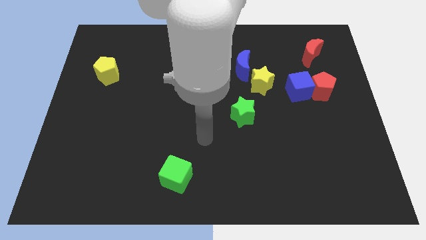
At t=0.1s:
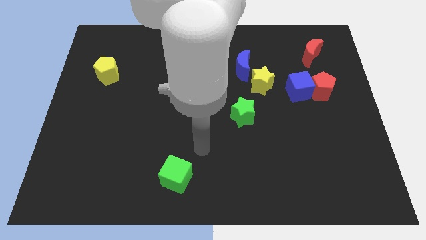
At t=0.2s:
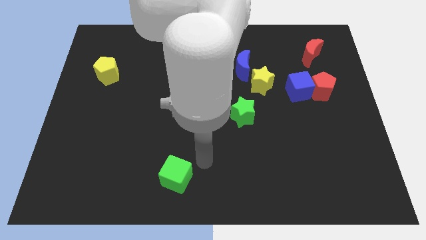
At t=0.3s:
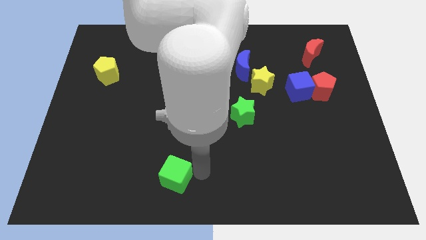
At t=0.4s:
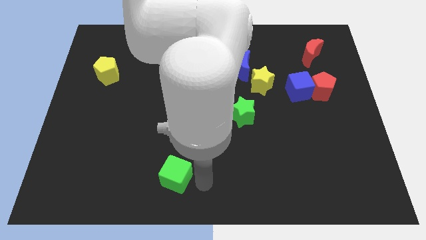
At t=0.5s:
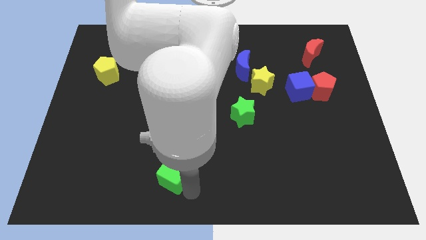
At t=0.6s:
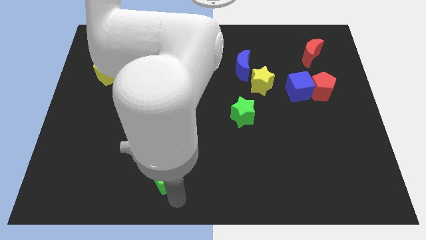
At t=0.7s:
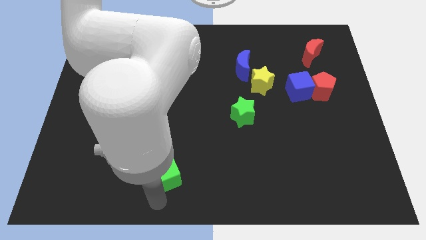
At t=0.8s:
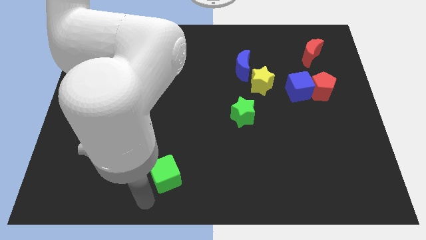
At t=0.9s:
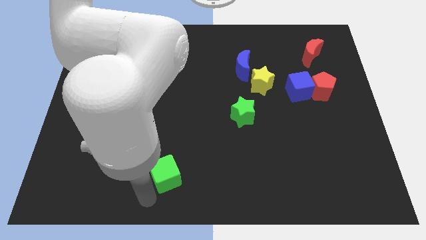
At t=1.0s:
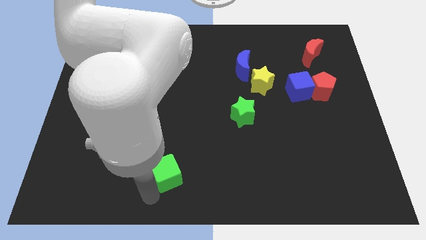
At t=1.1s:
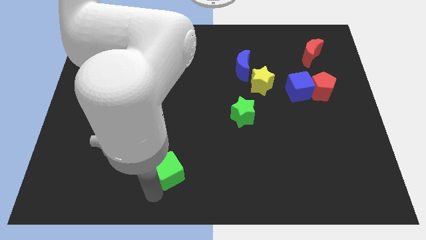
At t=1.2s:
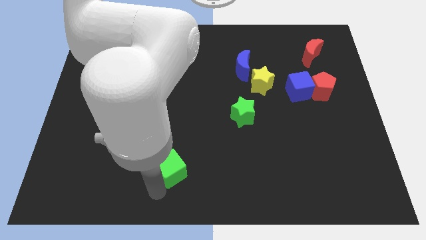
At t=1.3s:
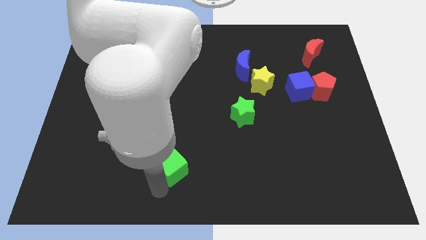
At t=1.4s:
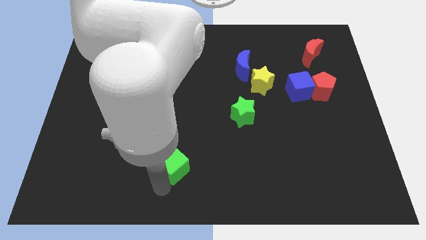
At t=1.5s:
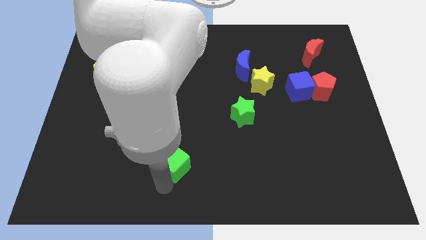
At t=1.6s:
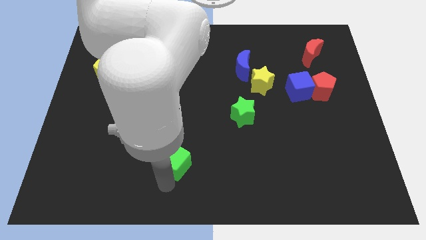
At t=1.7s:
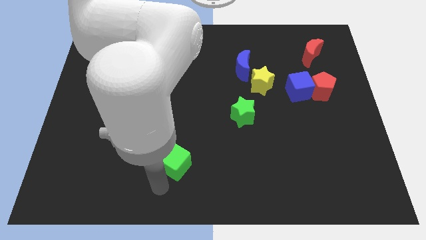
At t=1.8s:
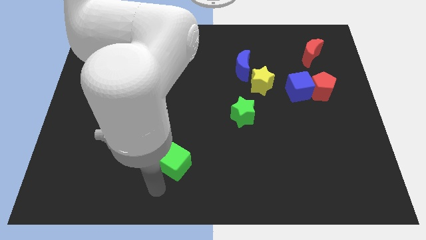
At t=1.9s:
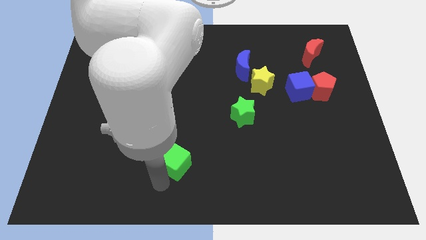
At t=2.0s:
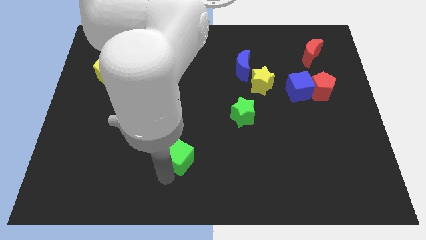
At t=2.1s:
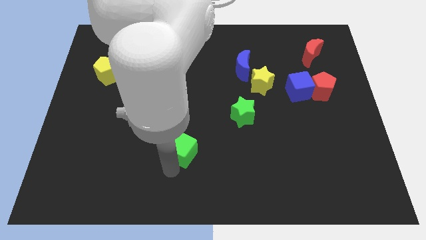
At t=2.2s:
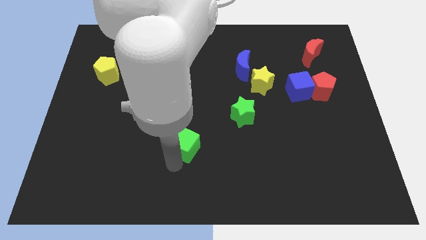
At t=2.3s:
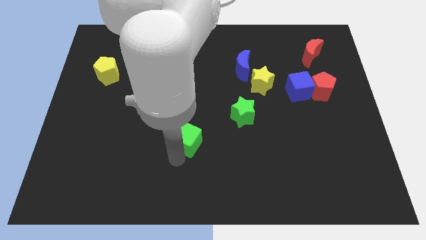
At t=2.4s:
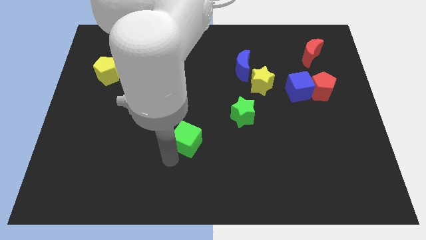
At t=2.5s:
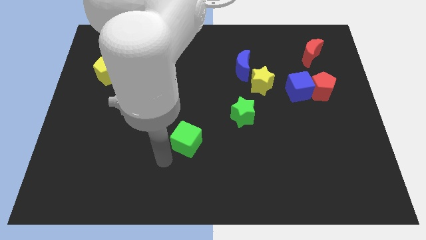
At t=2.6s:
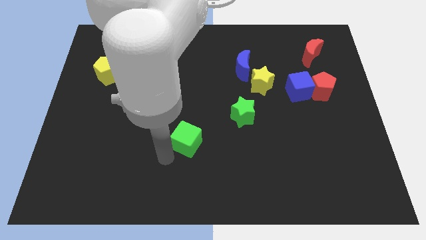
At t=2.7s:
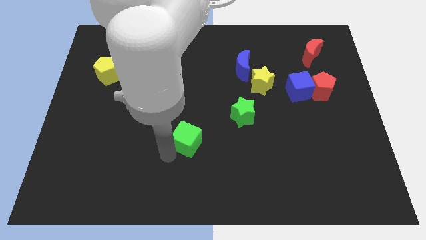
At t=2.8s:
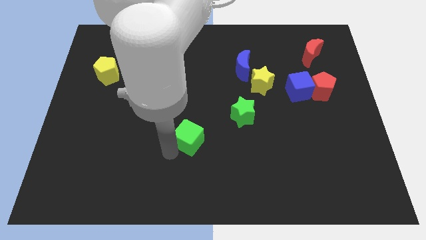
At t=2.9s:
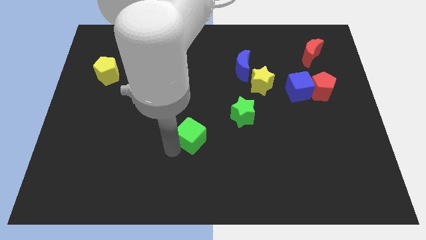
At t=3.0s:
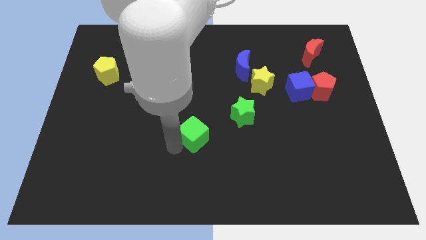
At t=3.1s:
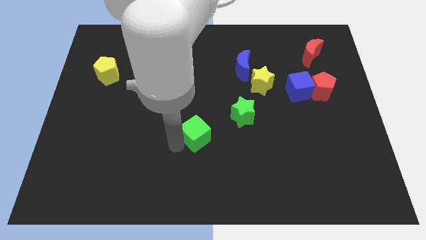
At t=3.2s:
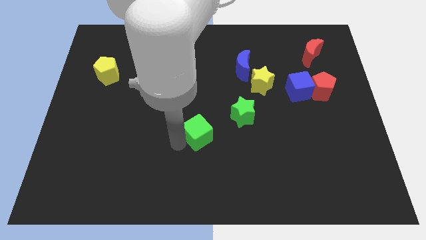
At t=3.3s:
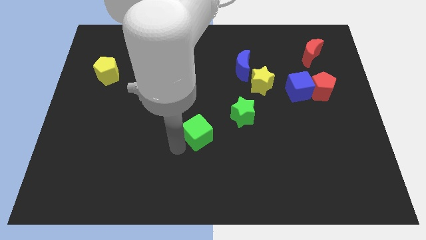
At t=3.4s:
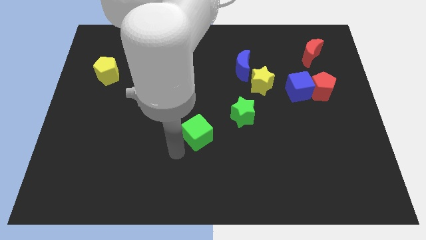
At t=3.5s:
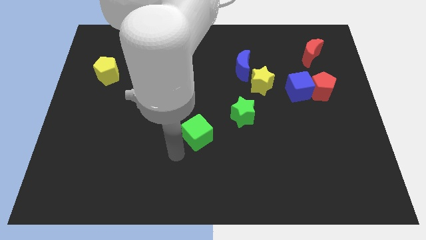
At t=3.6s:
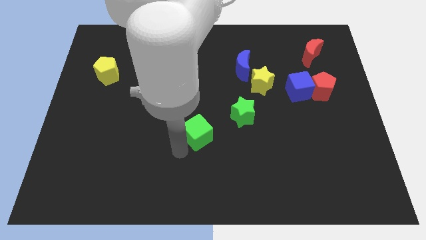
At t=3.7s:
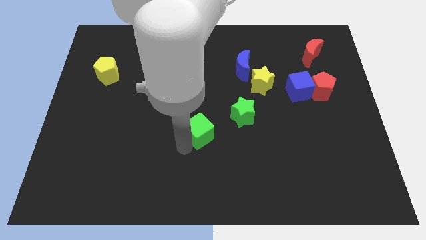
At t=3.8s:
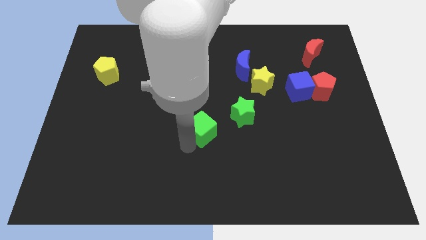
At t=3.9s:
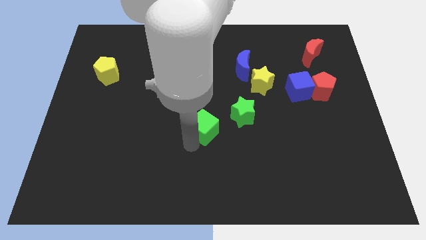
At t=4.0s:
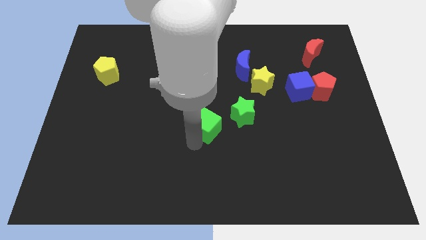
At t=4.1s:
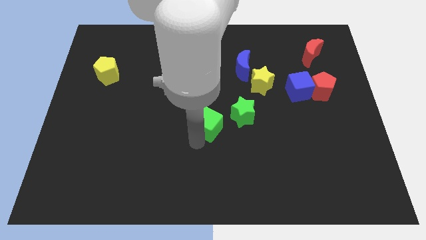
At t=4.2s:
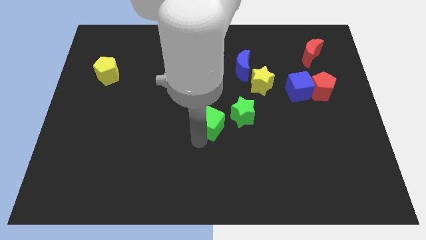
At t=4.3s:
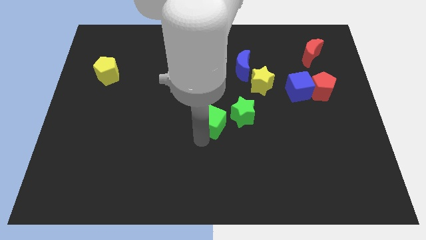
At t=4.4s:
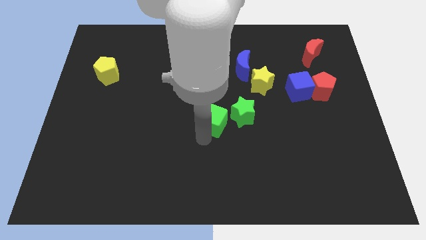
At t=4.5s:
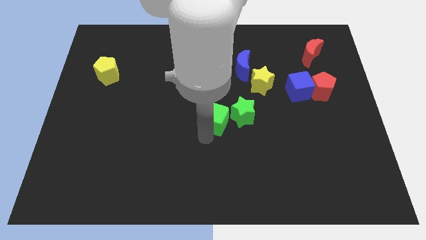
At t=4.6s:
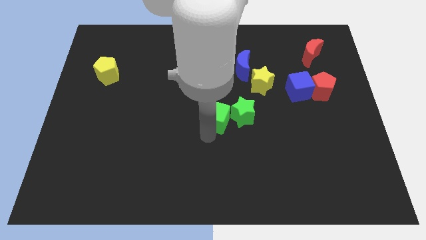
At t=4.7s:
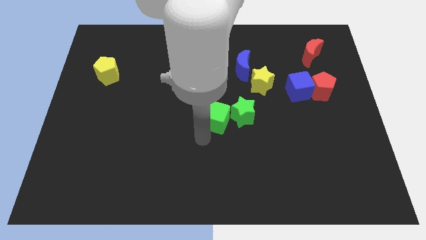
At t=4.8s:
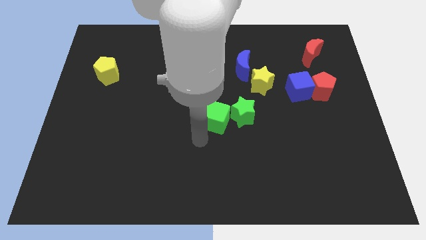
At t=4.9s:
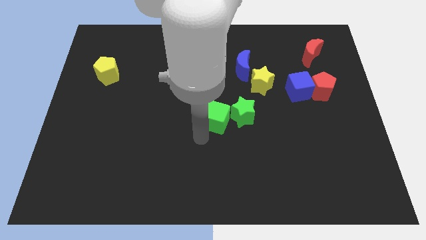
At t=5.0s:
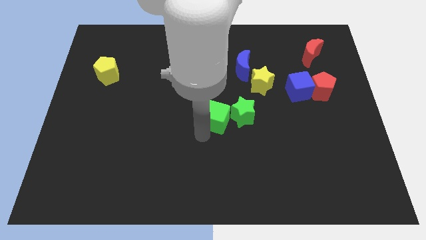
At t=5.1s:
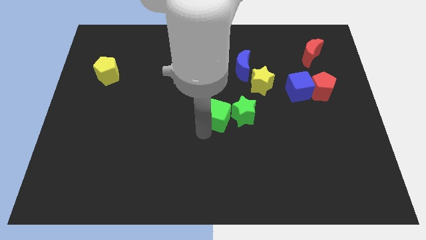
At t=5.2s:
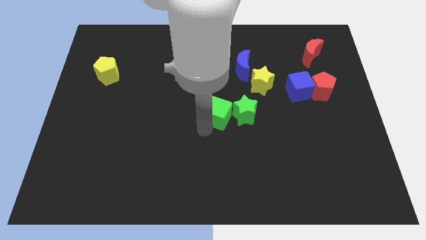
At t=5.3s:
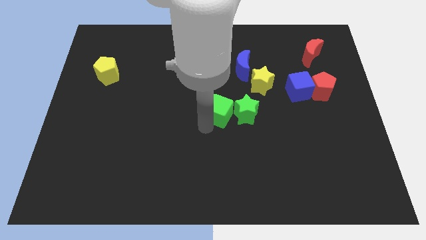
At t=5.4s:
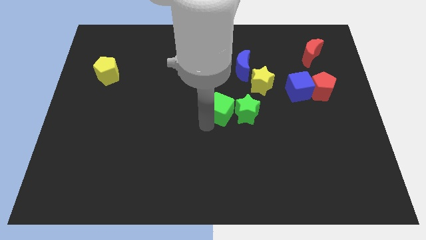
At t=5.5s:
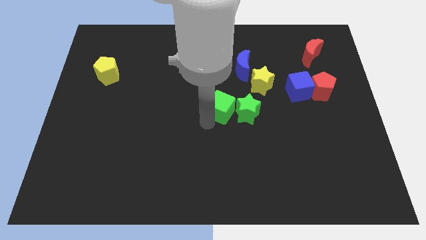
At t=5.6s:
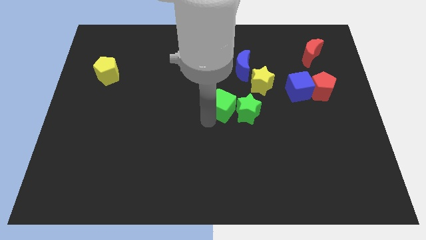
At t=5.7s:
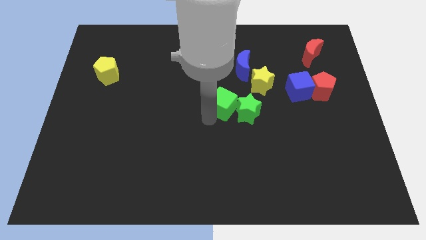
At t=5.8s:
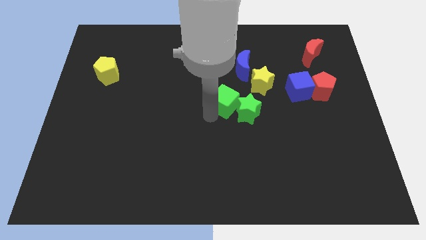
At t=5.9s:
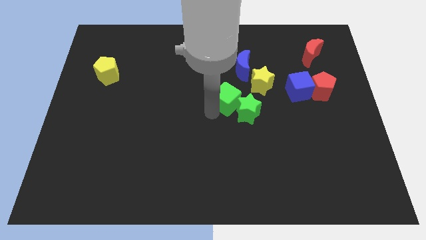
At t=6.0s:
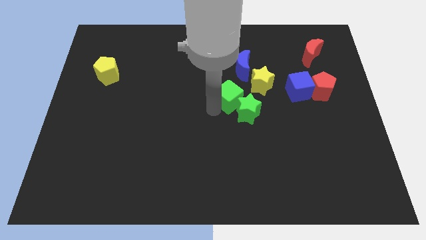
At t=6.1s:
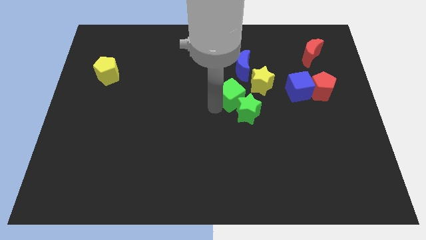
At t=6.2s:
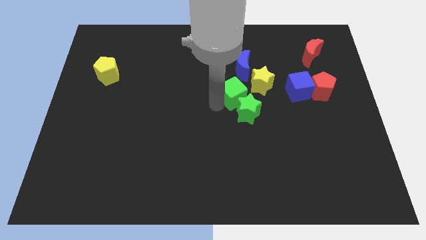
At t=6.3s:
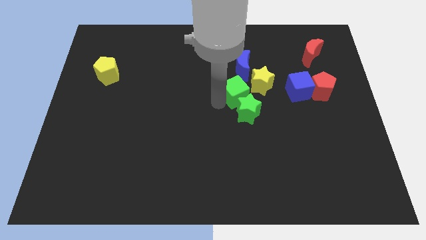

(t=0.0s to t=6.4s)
put the green cube to the left of the blue cube

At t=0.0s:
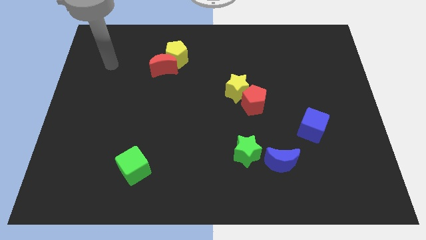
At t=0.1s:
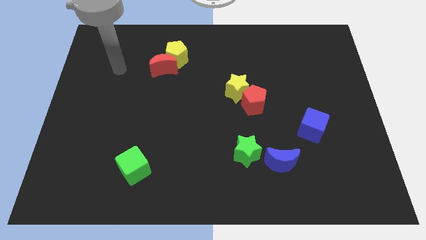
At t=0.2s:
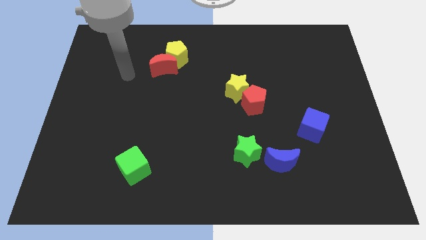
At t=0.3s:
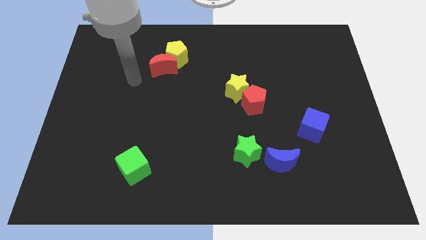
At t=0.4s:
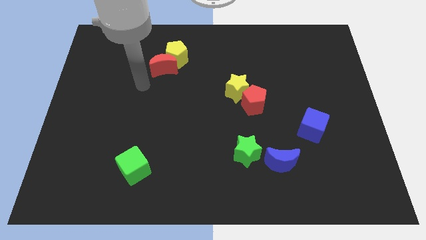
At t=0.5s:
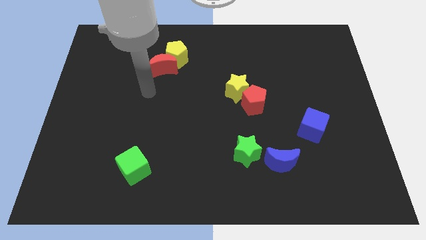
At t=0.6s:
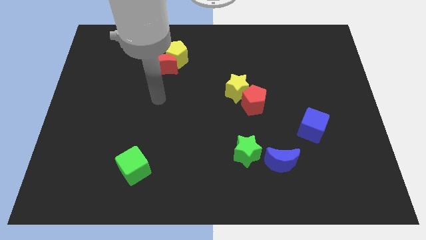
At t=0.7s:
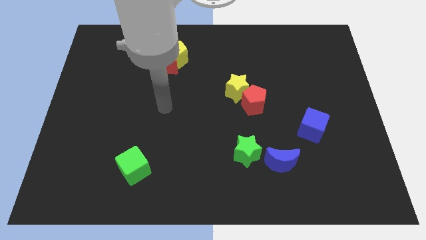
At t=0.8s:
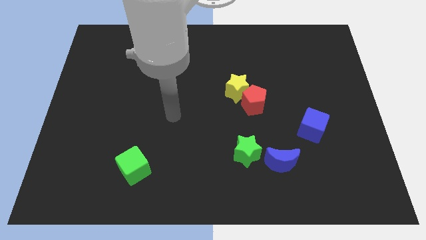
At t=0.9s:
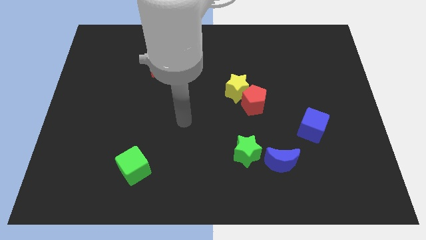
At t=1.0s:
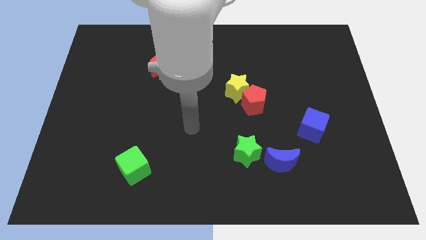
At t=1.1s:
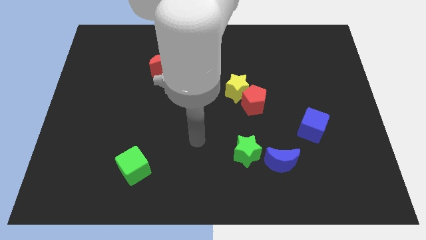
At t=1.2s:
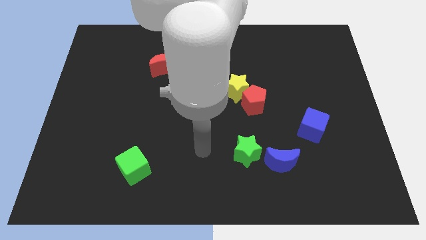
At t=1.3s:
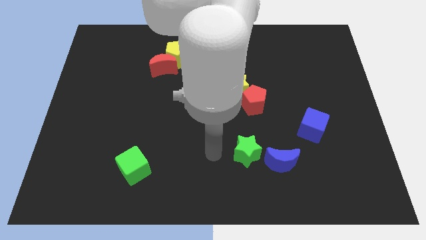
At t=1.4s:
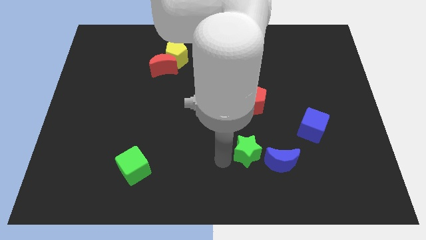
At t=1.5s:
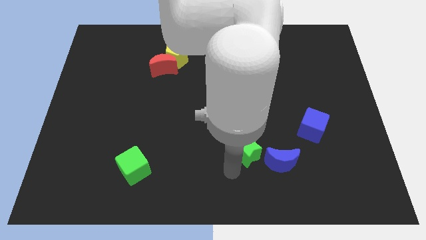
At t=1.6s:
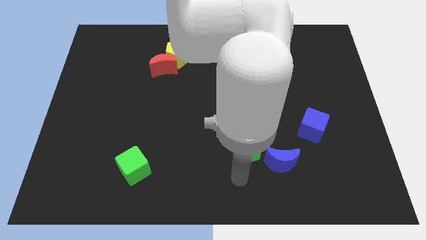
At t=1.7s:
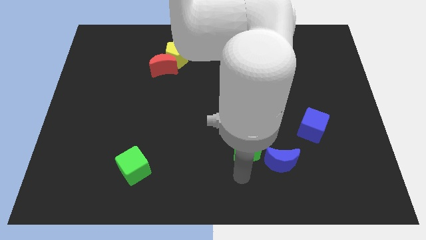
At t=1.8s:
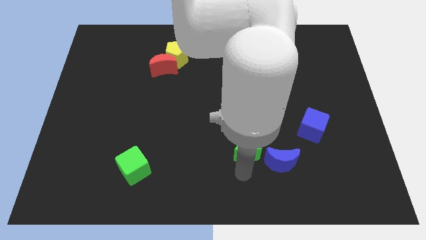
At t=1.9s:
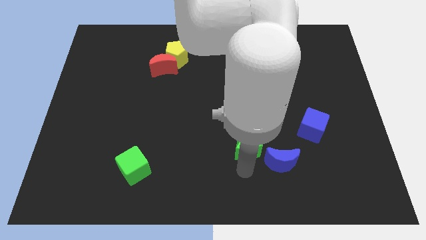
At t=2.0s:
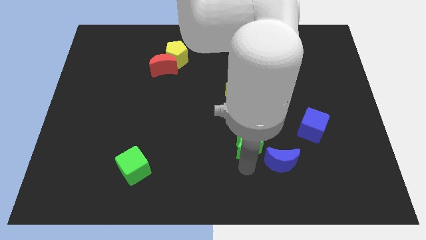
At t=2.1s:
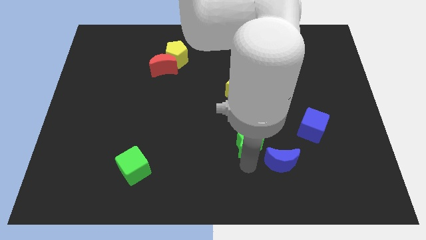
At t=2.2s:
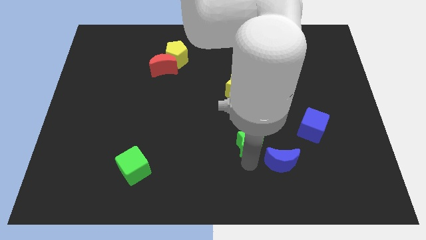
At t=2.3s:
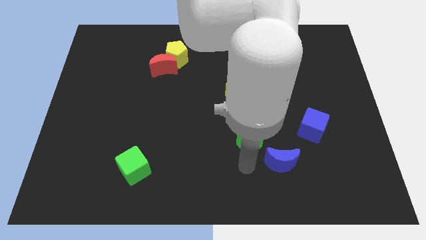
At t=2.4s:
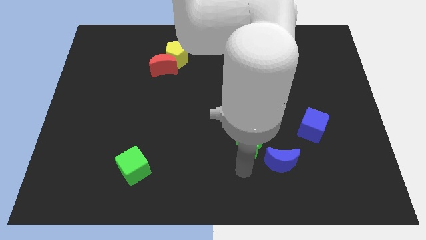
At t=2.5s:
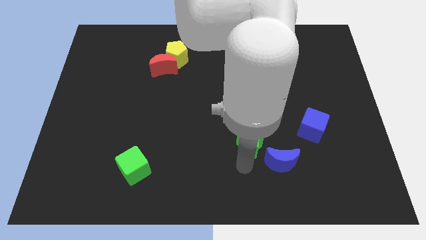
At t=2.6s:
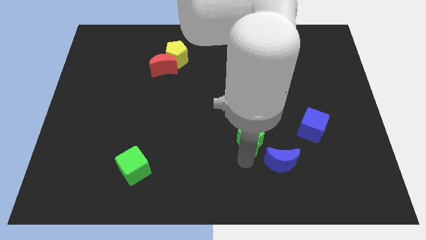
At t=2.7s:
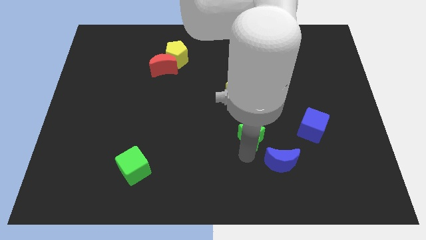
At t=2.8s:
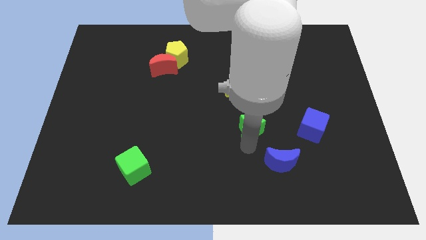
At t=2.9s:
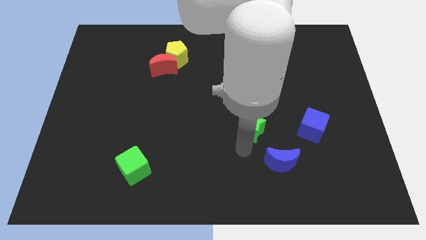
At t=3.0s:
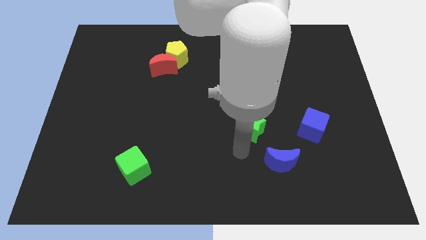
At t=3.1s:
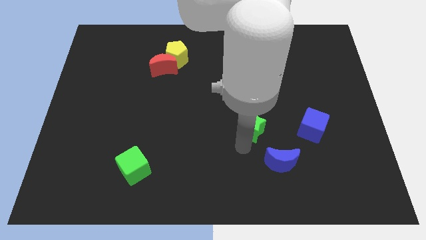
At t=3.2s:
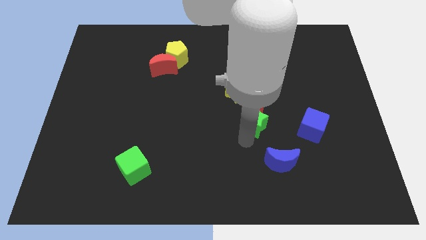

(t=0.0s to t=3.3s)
push the green star to the bottom right of the yellow star
